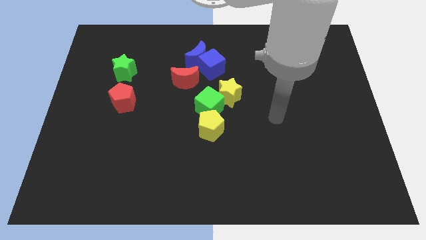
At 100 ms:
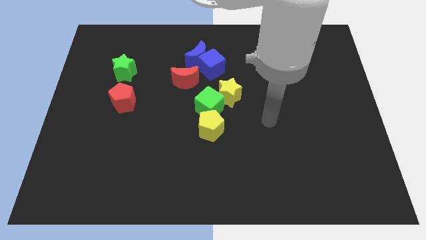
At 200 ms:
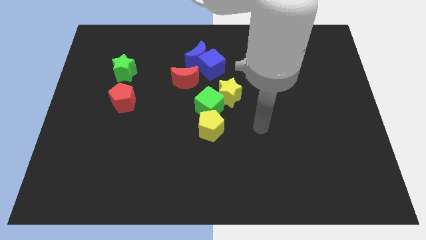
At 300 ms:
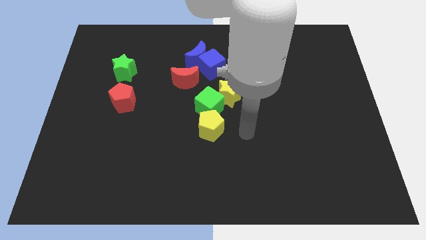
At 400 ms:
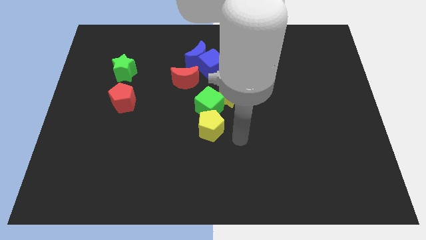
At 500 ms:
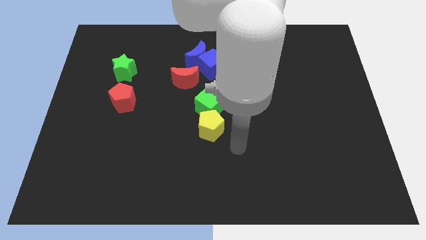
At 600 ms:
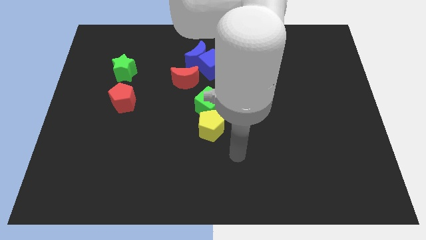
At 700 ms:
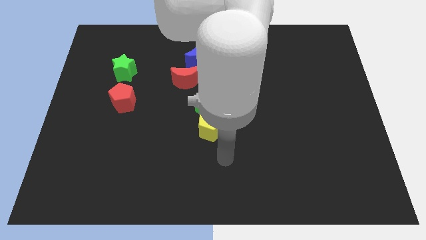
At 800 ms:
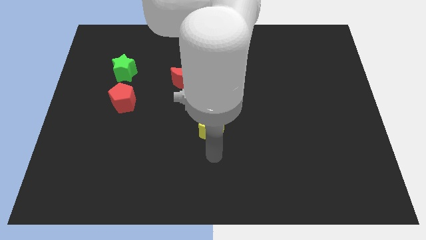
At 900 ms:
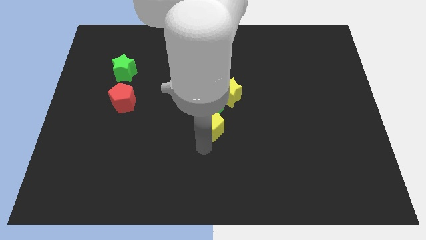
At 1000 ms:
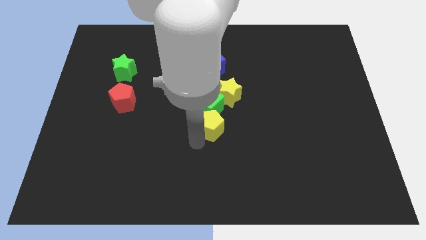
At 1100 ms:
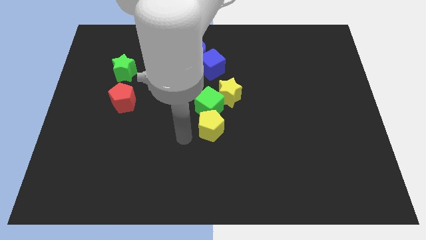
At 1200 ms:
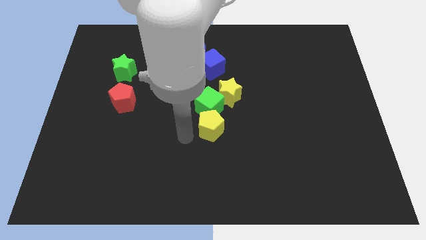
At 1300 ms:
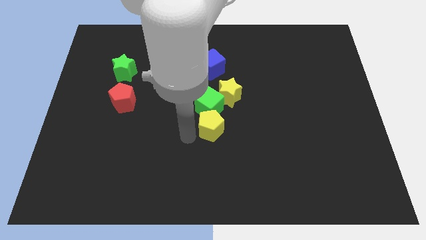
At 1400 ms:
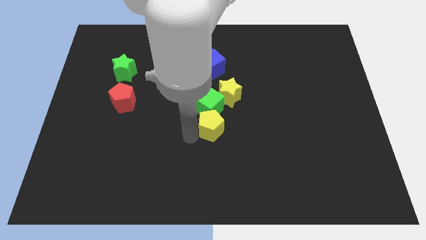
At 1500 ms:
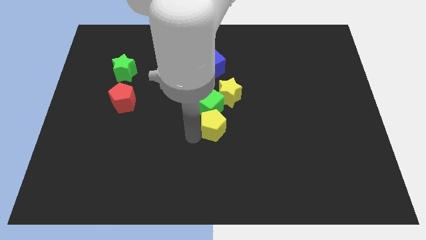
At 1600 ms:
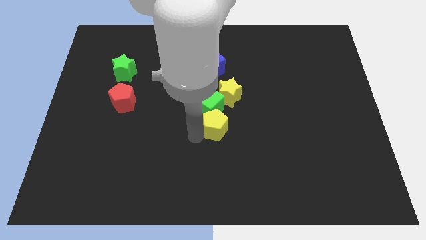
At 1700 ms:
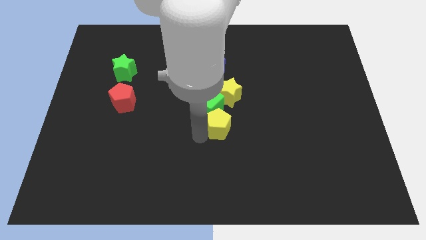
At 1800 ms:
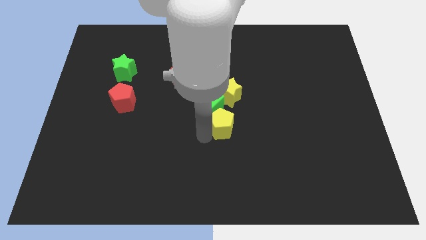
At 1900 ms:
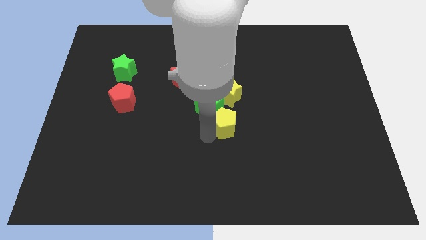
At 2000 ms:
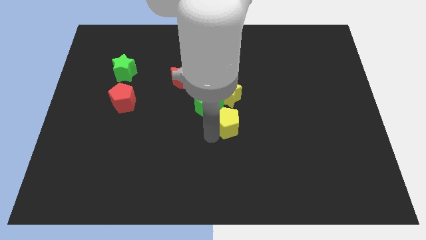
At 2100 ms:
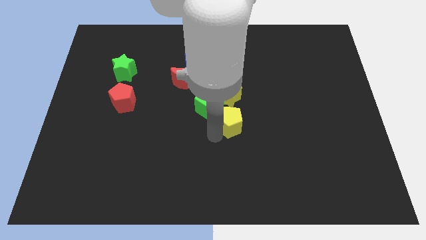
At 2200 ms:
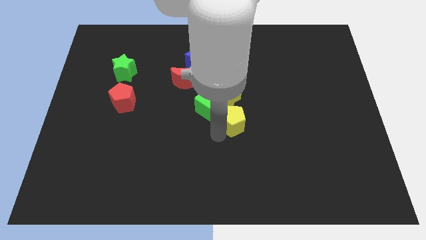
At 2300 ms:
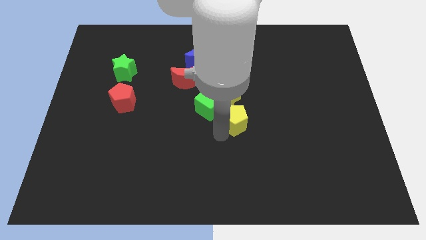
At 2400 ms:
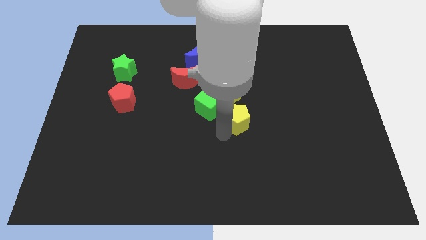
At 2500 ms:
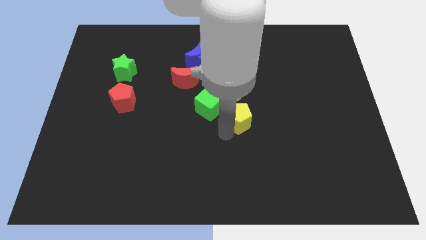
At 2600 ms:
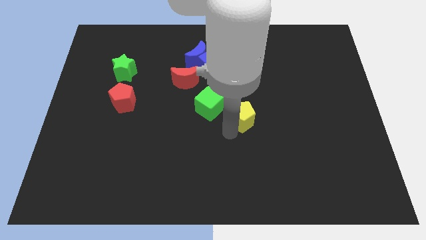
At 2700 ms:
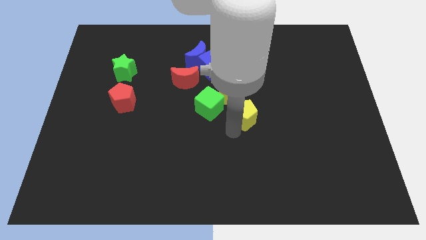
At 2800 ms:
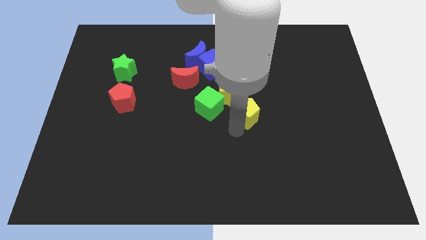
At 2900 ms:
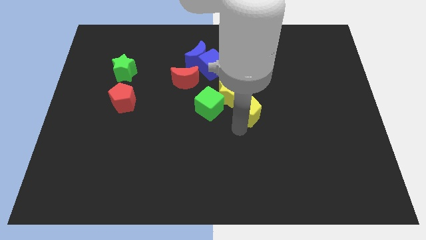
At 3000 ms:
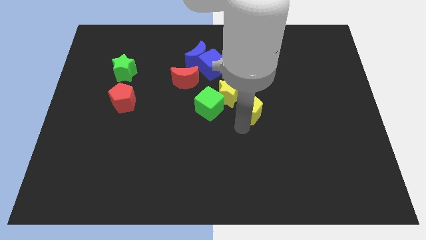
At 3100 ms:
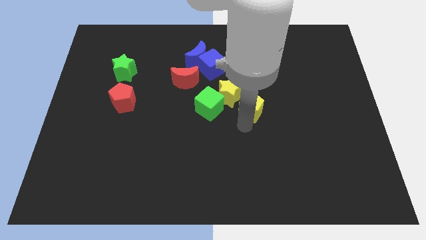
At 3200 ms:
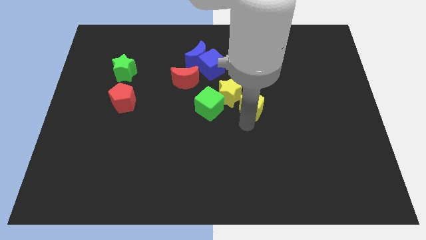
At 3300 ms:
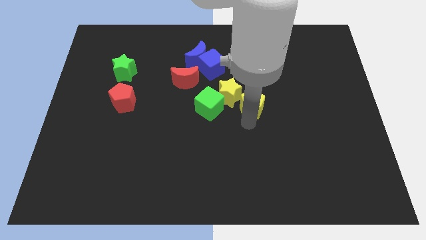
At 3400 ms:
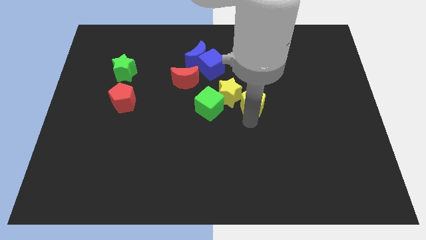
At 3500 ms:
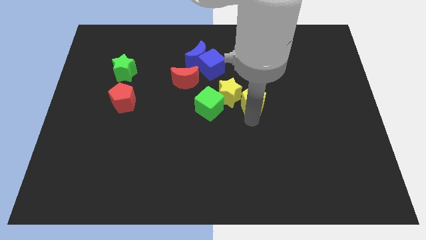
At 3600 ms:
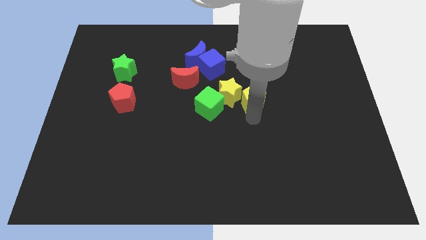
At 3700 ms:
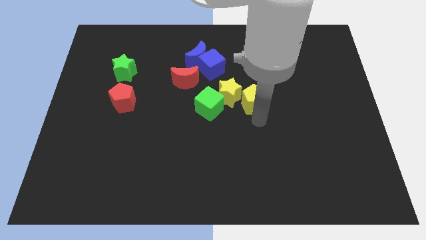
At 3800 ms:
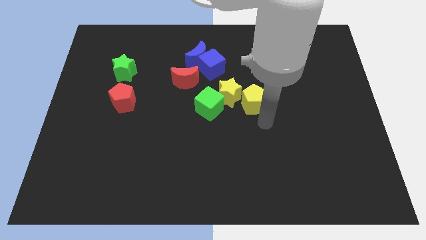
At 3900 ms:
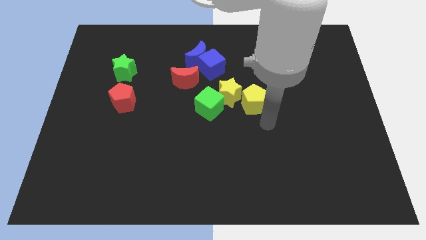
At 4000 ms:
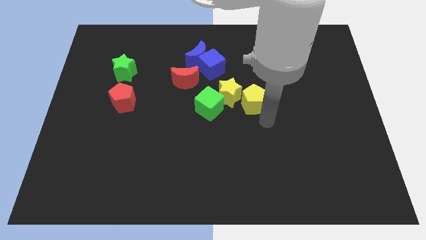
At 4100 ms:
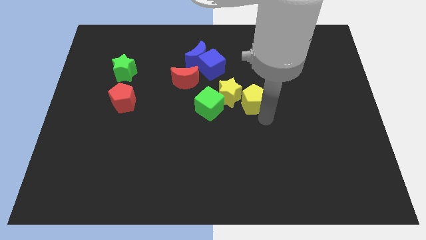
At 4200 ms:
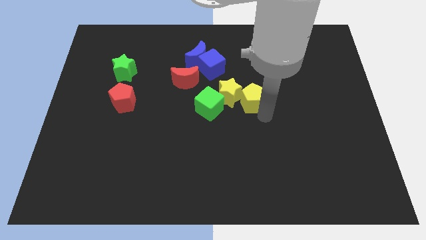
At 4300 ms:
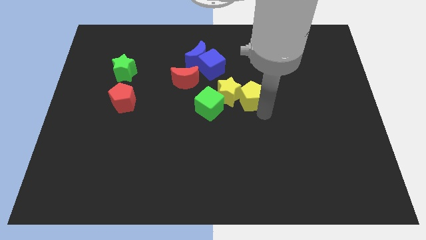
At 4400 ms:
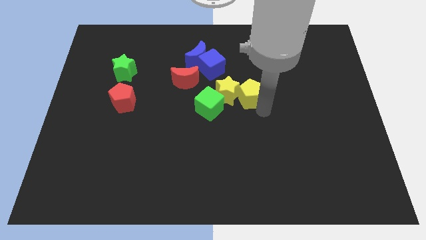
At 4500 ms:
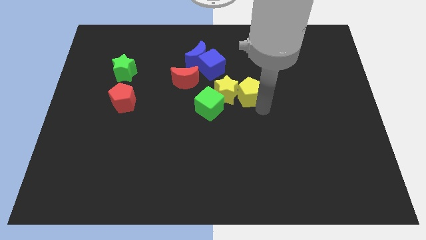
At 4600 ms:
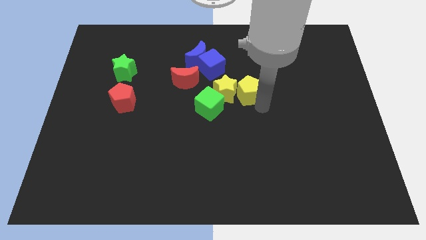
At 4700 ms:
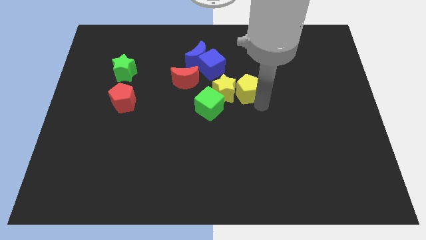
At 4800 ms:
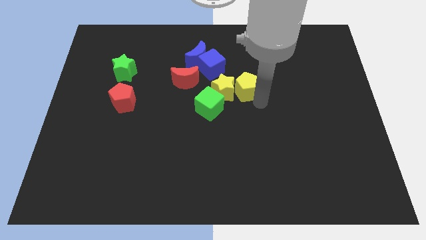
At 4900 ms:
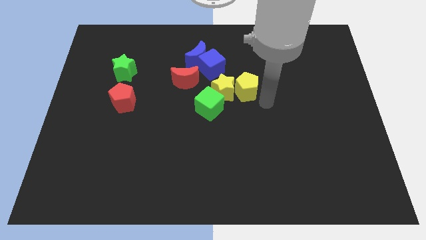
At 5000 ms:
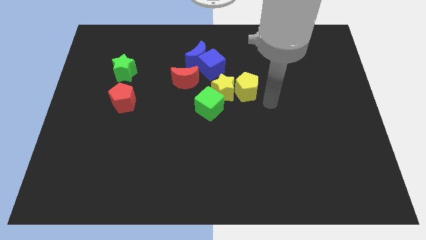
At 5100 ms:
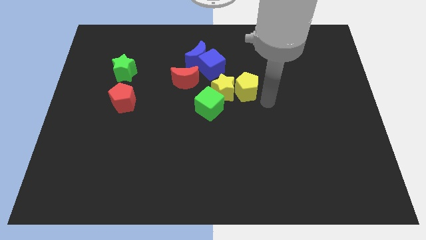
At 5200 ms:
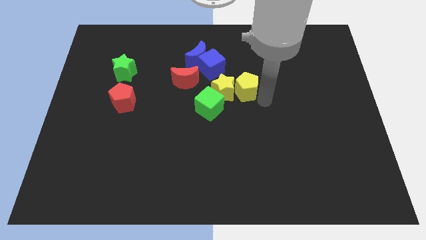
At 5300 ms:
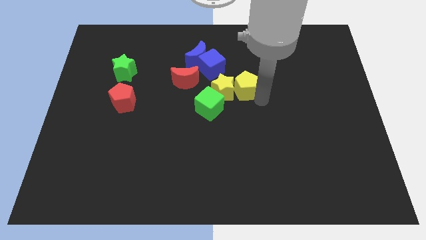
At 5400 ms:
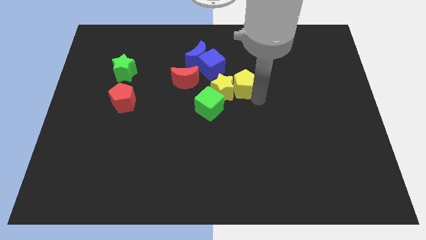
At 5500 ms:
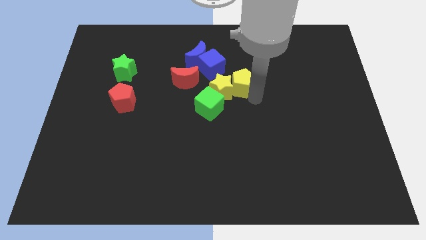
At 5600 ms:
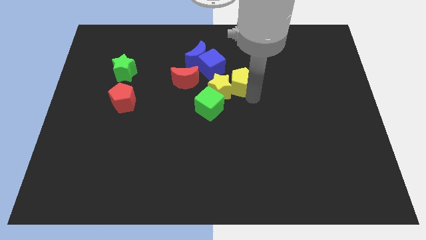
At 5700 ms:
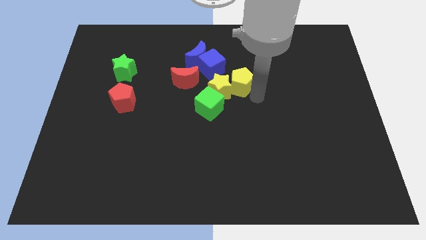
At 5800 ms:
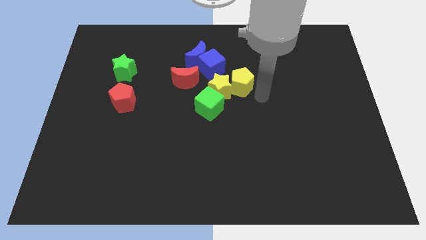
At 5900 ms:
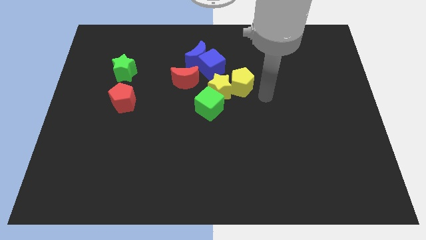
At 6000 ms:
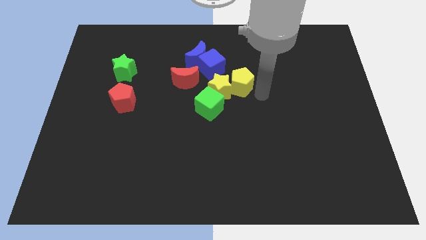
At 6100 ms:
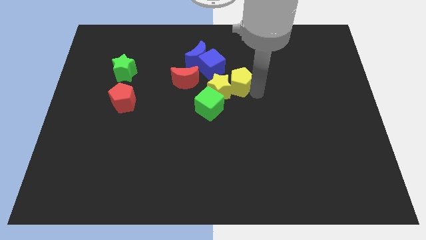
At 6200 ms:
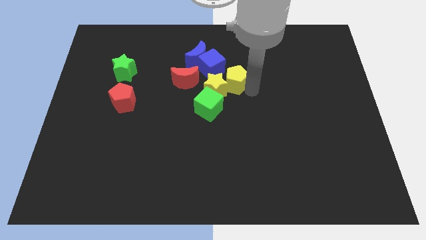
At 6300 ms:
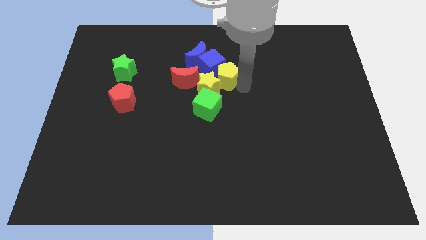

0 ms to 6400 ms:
put the yellow pentagon towards the blue cube
